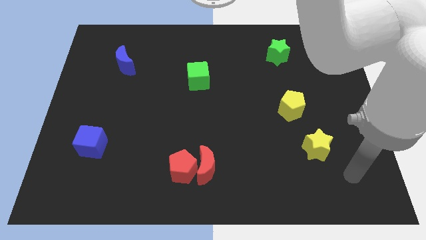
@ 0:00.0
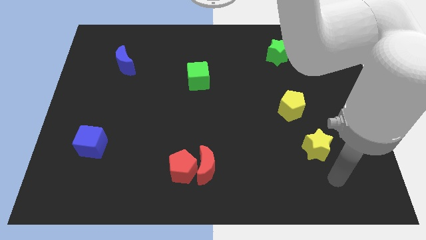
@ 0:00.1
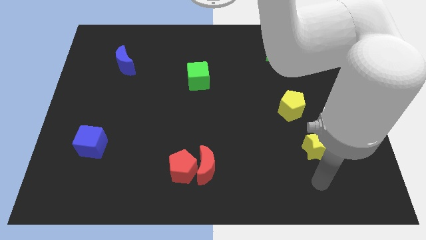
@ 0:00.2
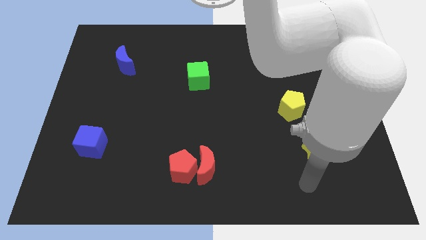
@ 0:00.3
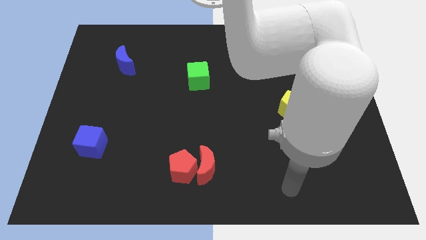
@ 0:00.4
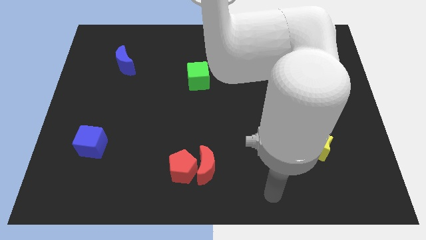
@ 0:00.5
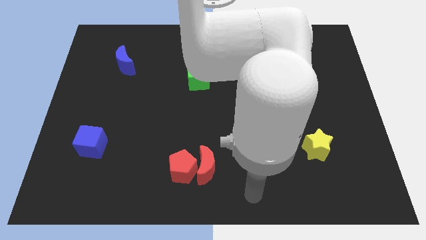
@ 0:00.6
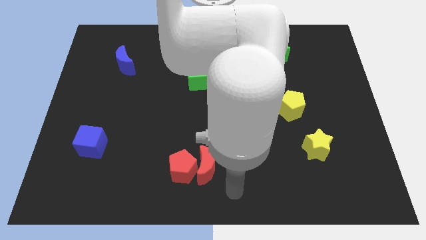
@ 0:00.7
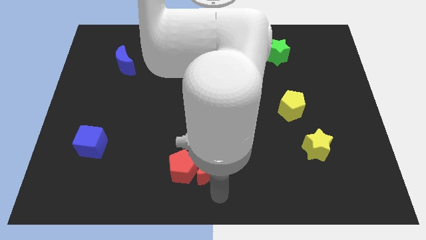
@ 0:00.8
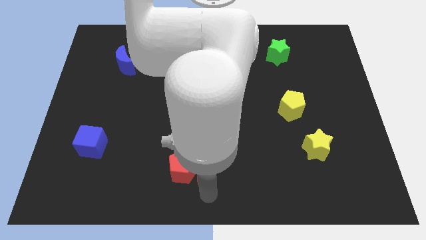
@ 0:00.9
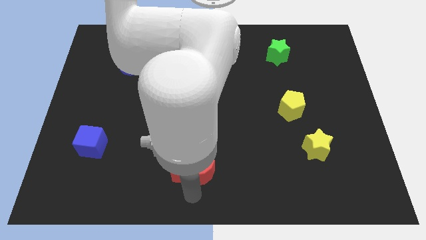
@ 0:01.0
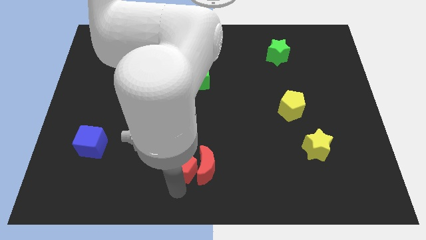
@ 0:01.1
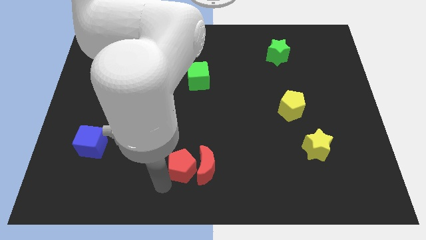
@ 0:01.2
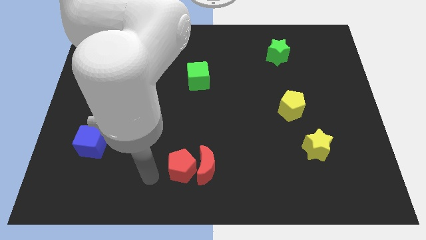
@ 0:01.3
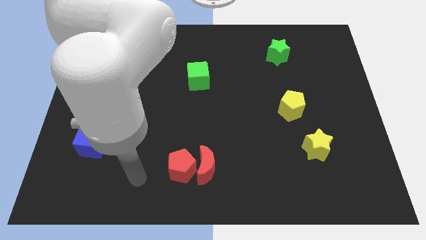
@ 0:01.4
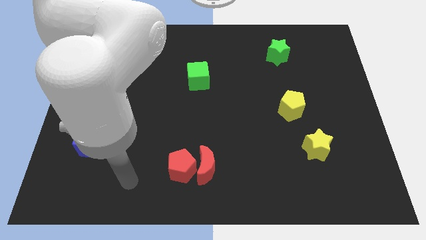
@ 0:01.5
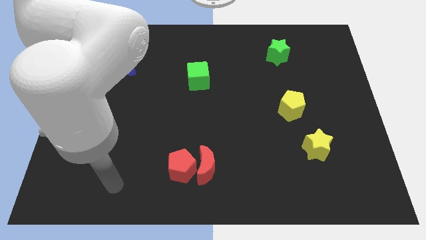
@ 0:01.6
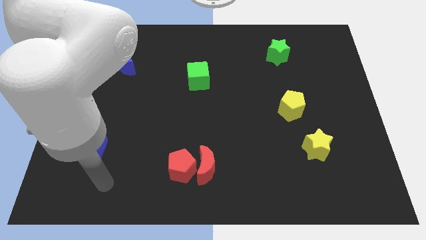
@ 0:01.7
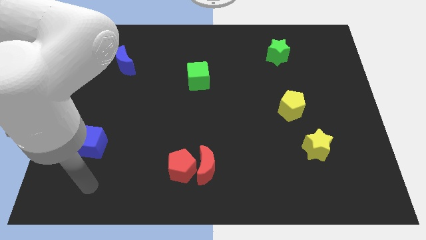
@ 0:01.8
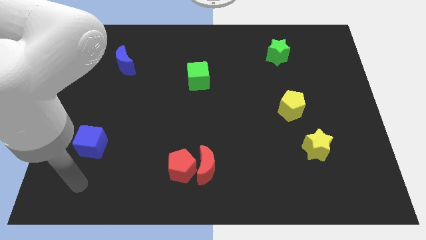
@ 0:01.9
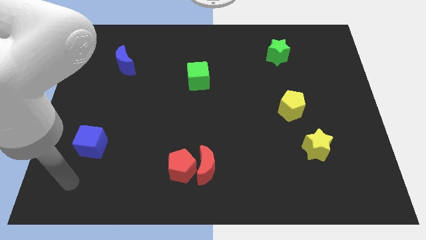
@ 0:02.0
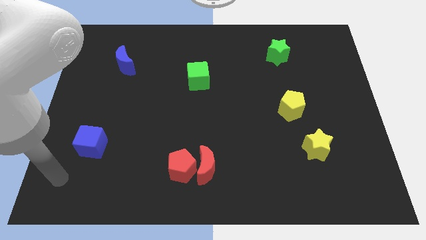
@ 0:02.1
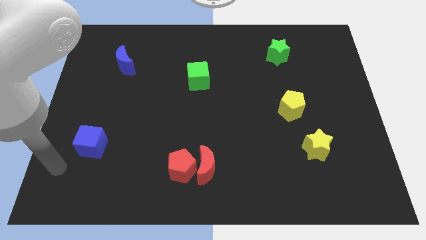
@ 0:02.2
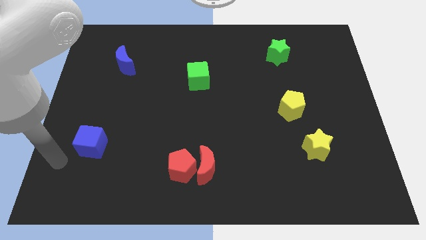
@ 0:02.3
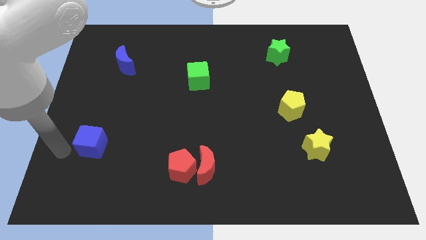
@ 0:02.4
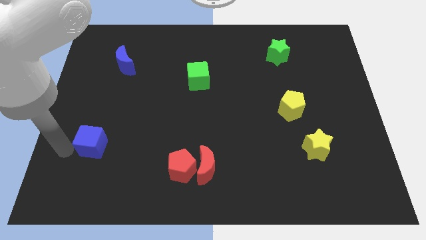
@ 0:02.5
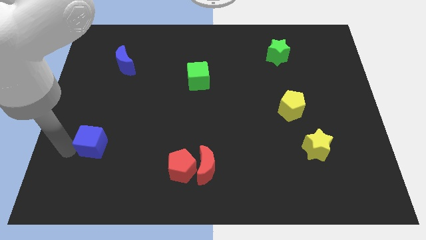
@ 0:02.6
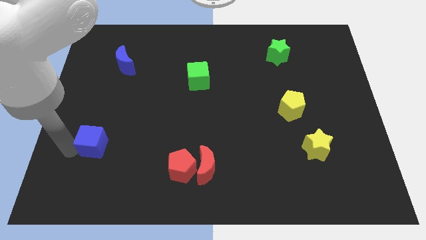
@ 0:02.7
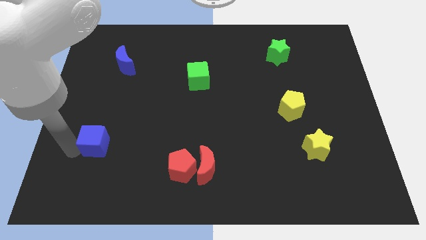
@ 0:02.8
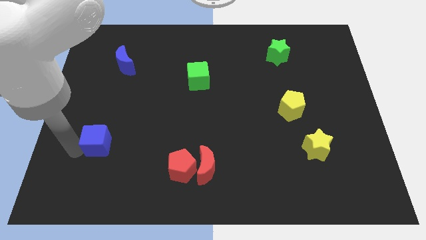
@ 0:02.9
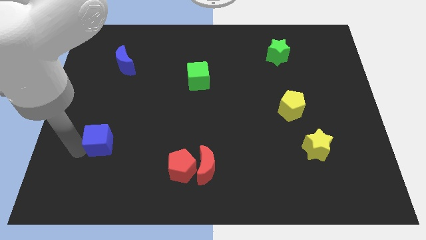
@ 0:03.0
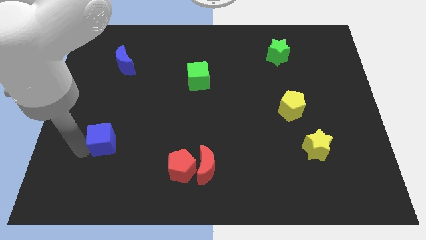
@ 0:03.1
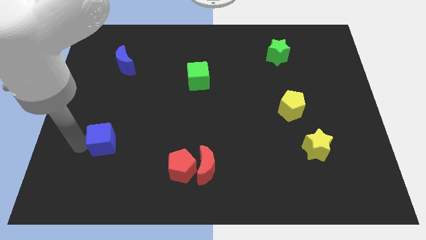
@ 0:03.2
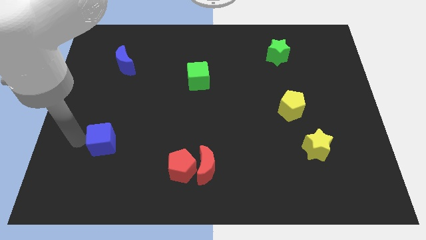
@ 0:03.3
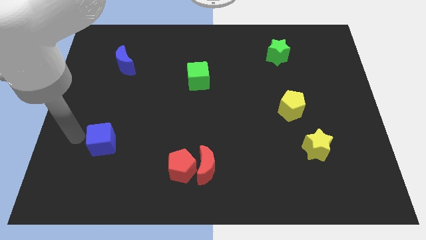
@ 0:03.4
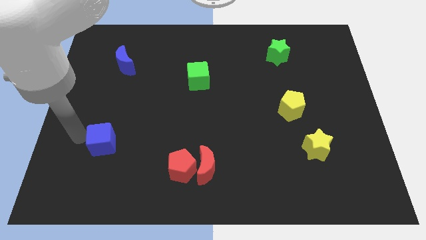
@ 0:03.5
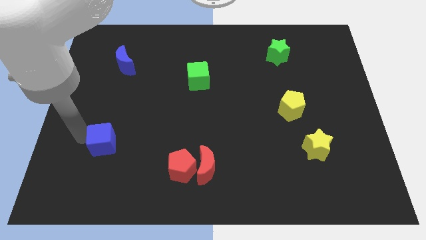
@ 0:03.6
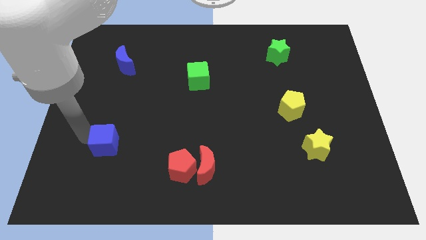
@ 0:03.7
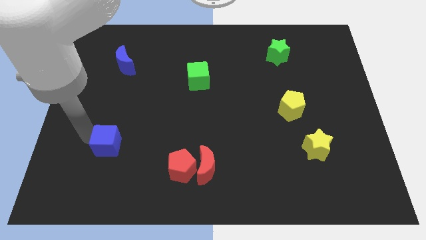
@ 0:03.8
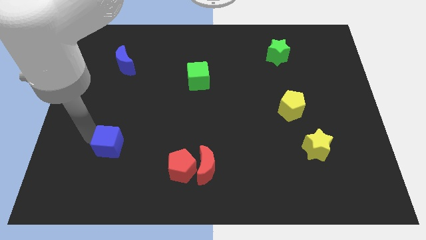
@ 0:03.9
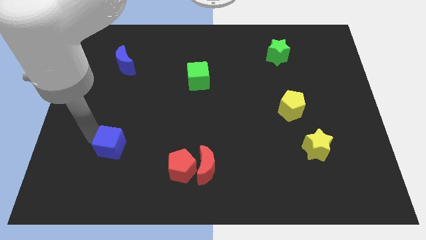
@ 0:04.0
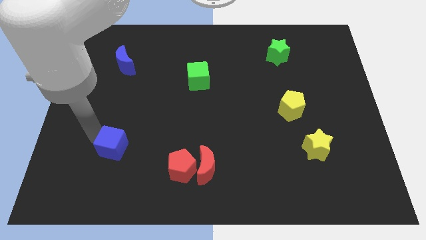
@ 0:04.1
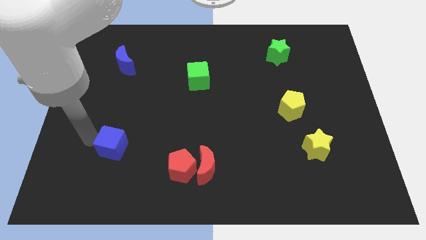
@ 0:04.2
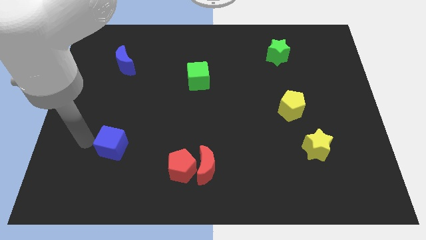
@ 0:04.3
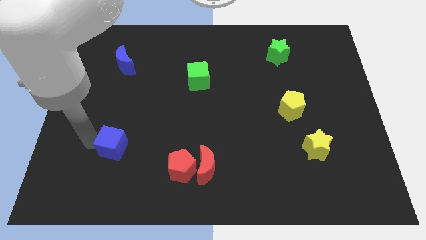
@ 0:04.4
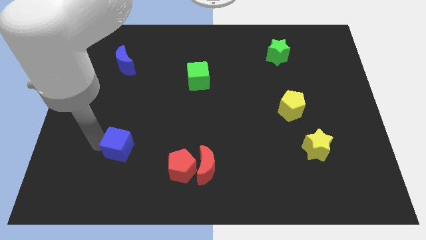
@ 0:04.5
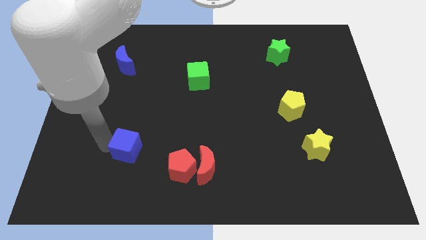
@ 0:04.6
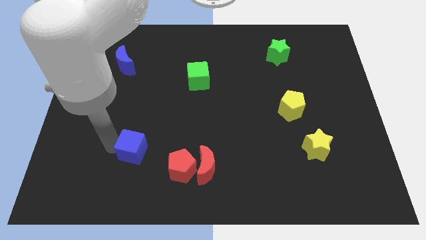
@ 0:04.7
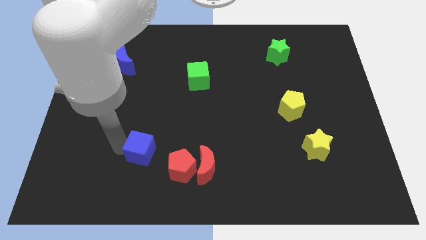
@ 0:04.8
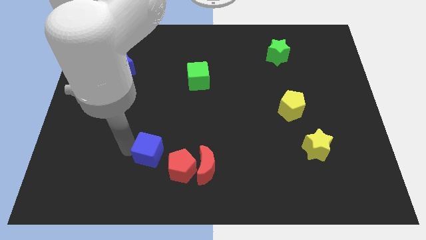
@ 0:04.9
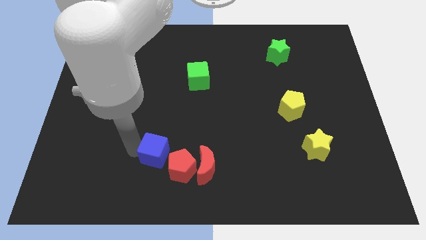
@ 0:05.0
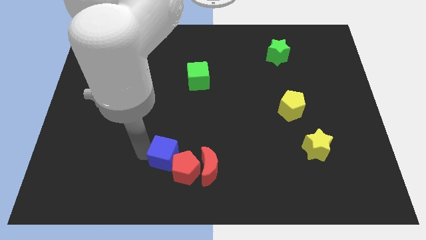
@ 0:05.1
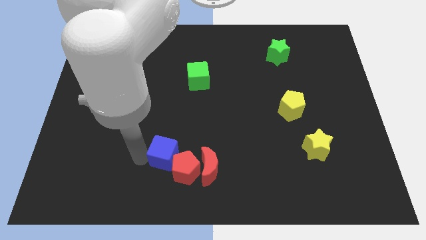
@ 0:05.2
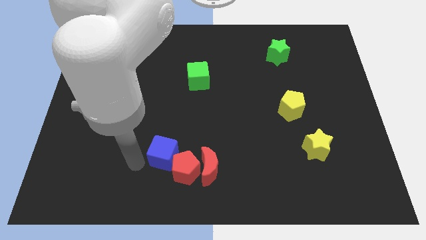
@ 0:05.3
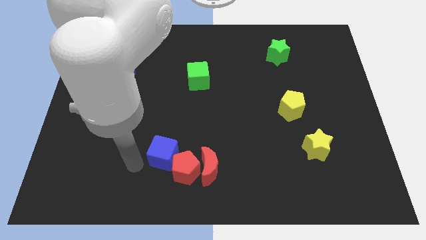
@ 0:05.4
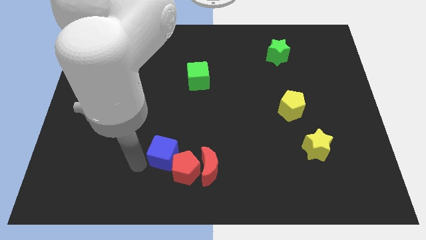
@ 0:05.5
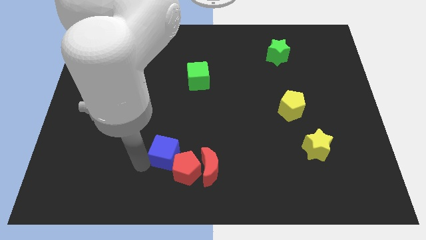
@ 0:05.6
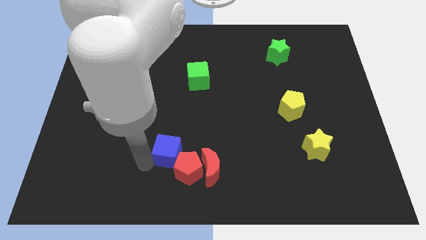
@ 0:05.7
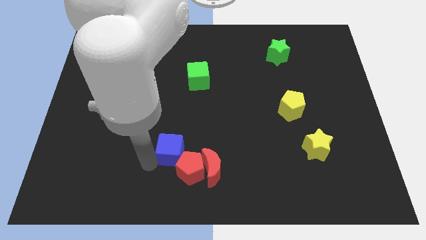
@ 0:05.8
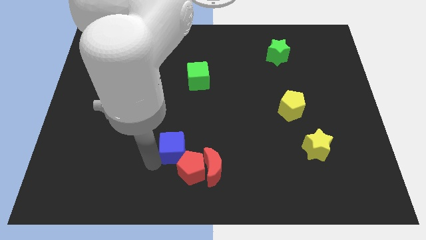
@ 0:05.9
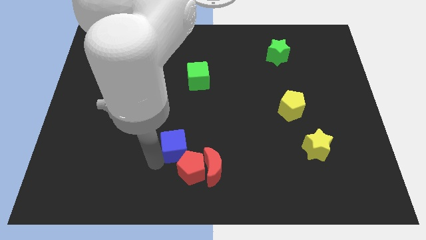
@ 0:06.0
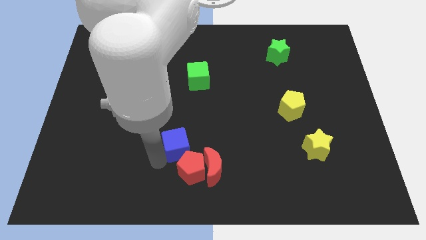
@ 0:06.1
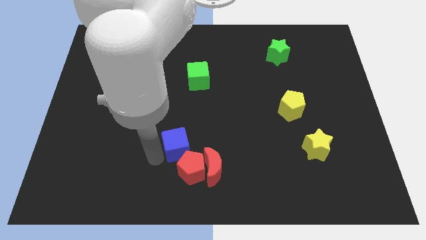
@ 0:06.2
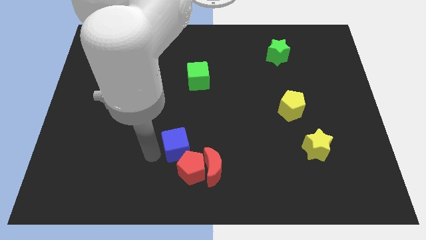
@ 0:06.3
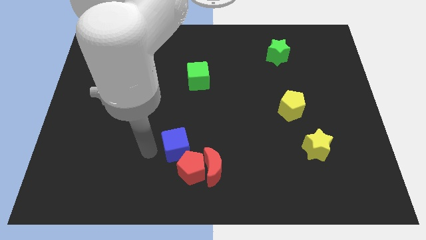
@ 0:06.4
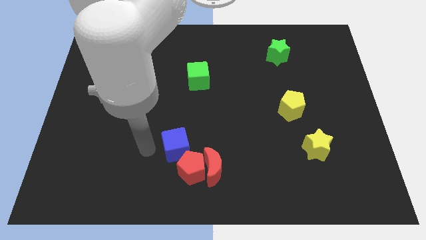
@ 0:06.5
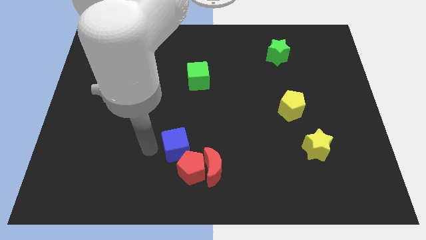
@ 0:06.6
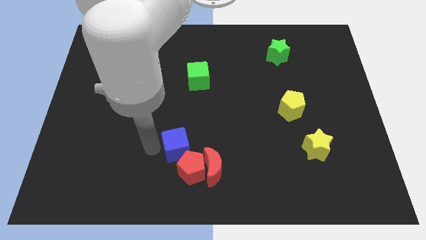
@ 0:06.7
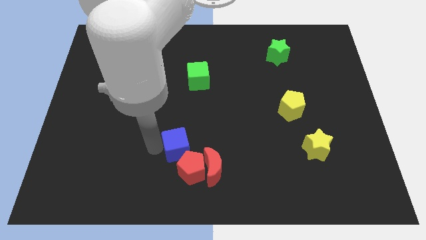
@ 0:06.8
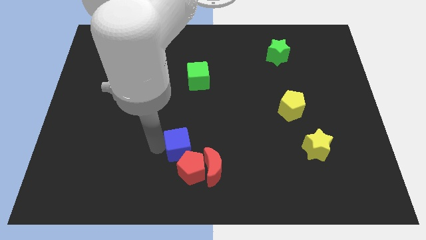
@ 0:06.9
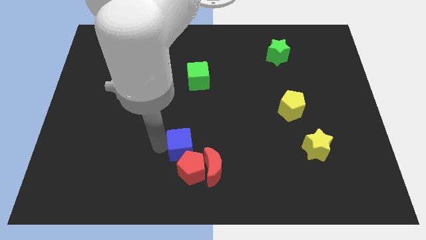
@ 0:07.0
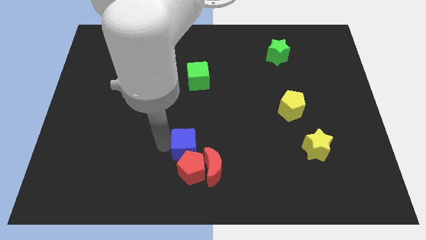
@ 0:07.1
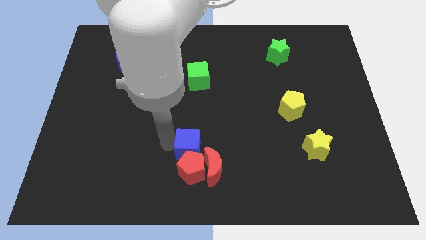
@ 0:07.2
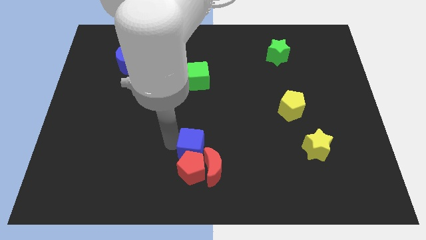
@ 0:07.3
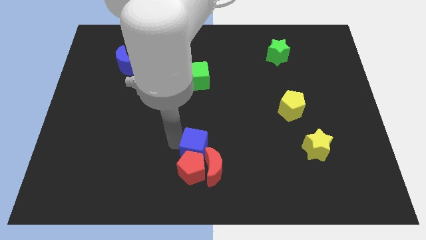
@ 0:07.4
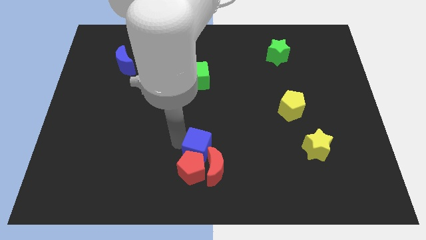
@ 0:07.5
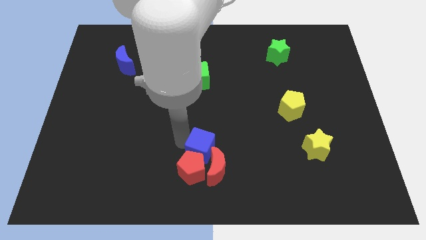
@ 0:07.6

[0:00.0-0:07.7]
slide the blue cube to the red moon
